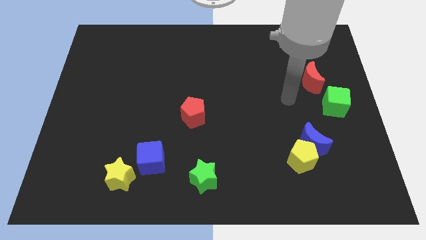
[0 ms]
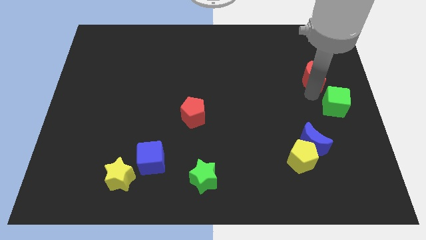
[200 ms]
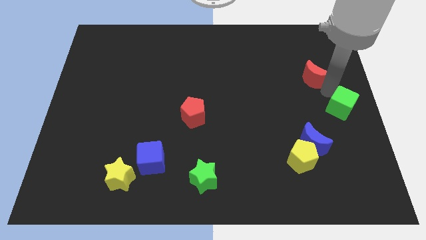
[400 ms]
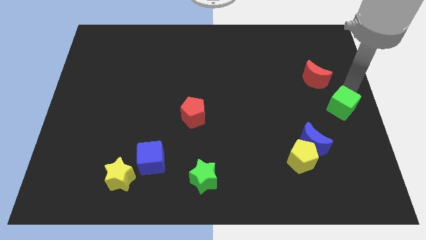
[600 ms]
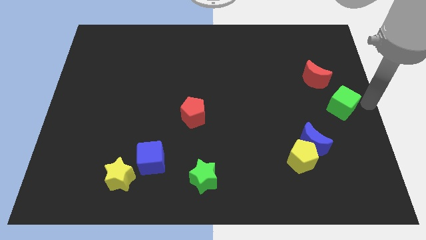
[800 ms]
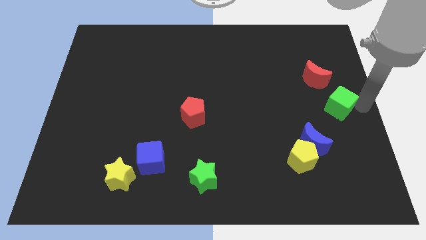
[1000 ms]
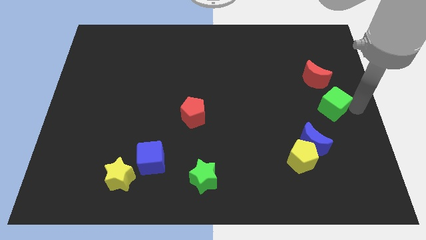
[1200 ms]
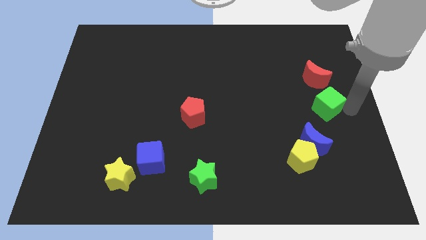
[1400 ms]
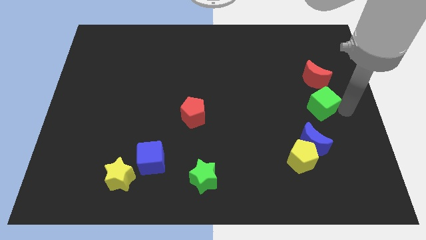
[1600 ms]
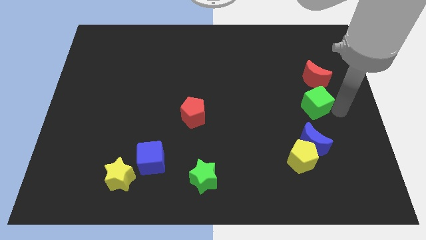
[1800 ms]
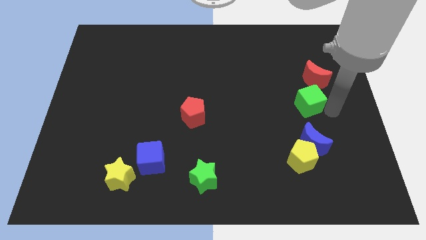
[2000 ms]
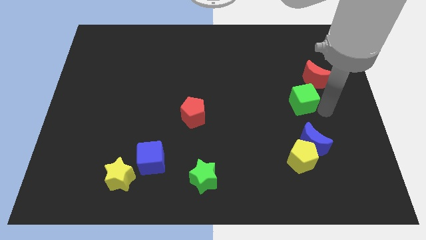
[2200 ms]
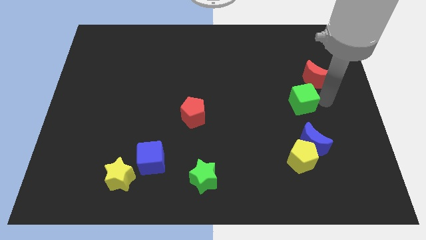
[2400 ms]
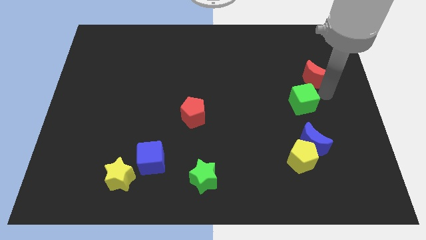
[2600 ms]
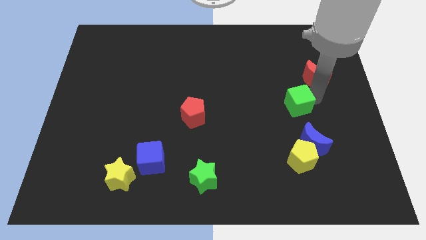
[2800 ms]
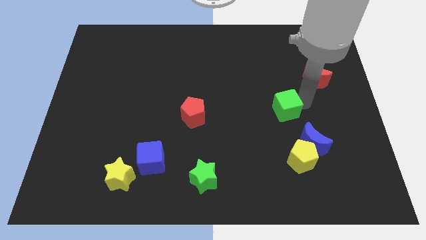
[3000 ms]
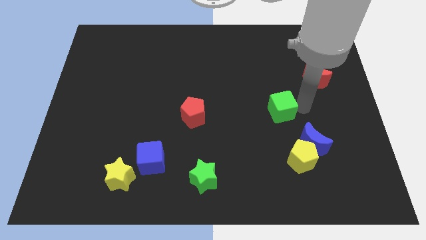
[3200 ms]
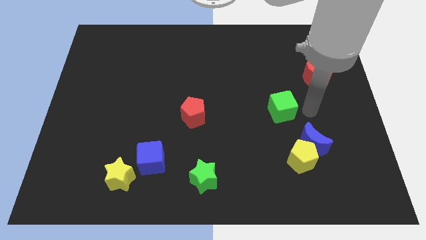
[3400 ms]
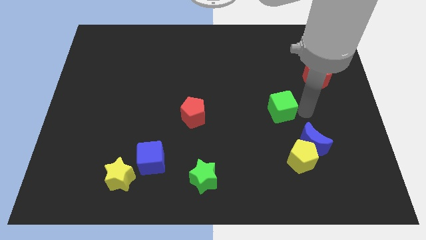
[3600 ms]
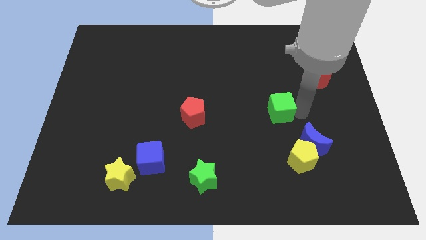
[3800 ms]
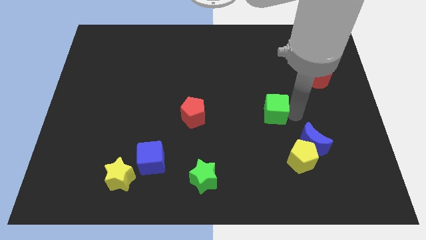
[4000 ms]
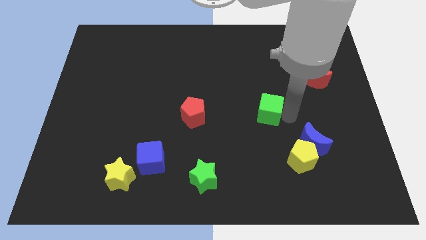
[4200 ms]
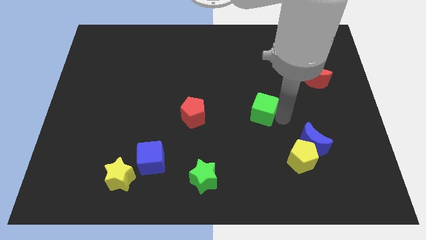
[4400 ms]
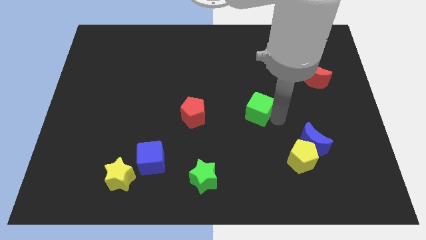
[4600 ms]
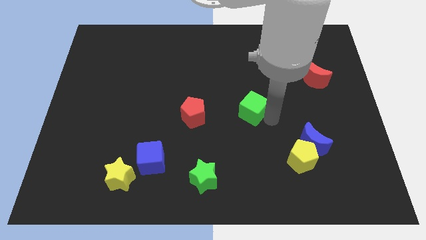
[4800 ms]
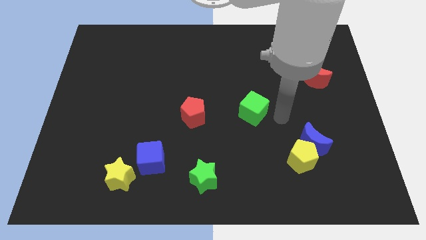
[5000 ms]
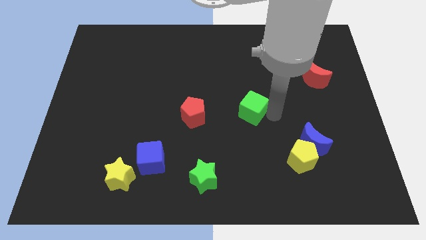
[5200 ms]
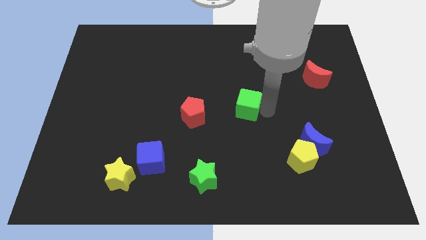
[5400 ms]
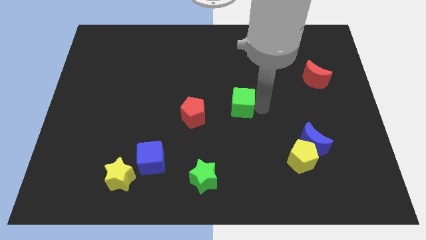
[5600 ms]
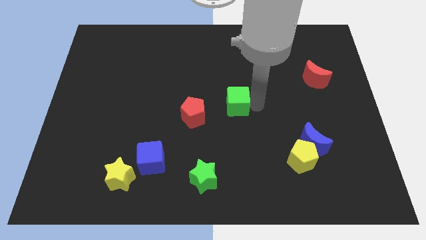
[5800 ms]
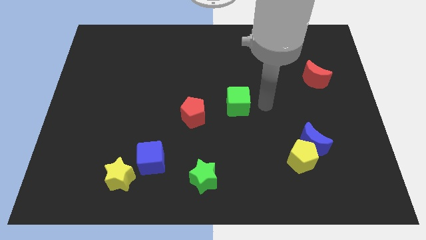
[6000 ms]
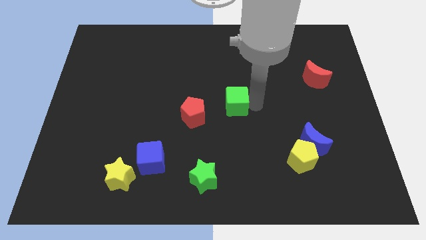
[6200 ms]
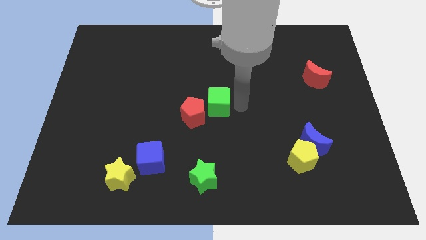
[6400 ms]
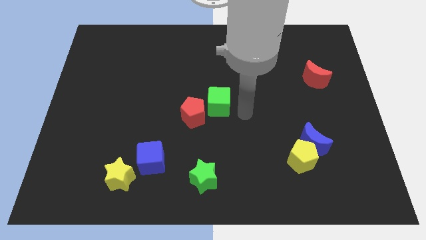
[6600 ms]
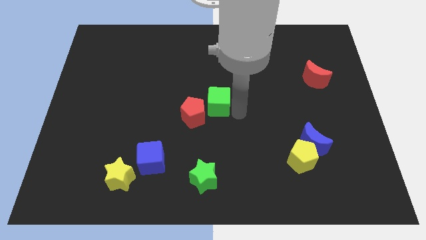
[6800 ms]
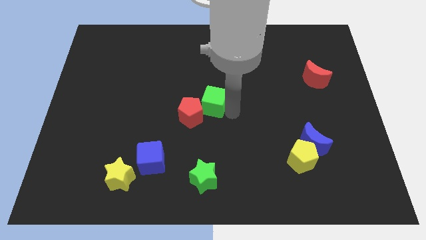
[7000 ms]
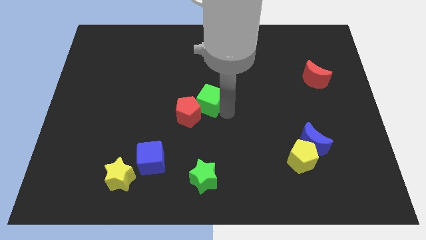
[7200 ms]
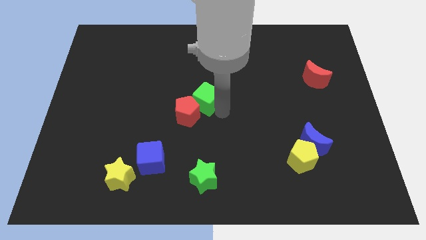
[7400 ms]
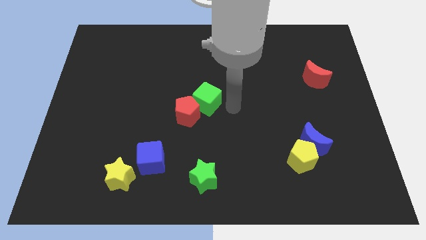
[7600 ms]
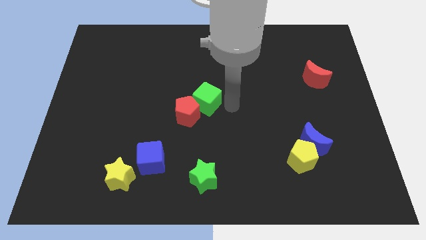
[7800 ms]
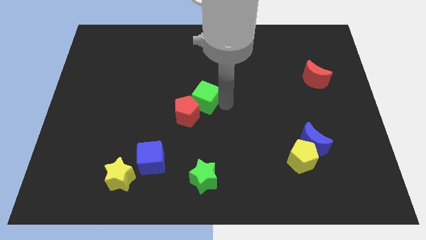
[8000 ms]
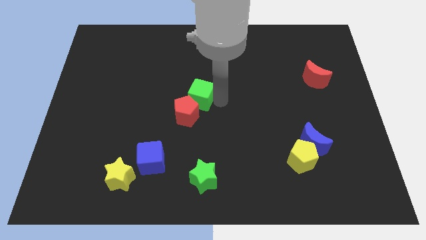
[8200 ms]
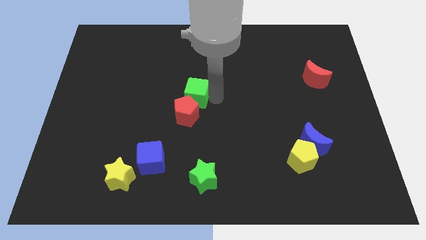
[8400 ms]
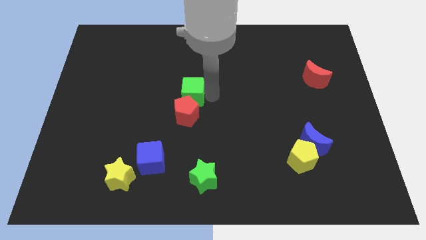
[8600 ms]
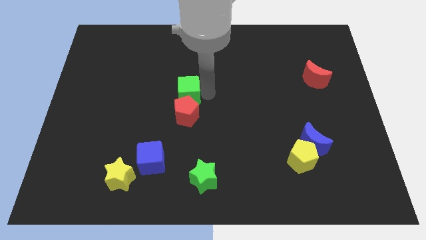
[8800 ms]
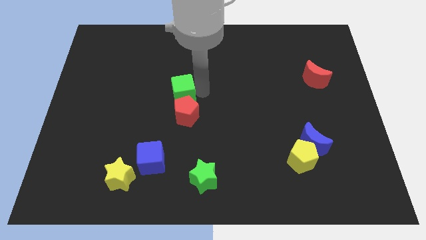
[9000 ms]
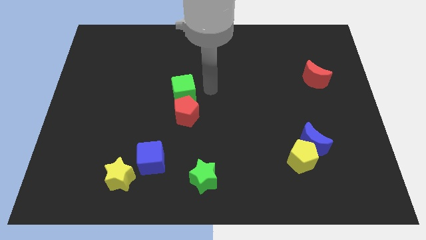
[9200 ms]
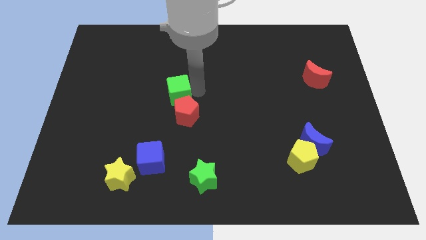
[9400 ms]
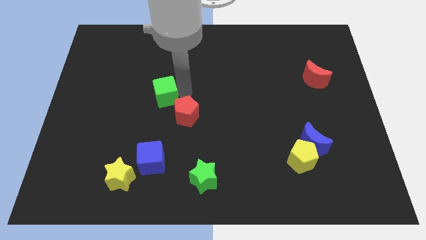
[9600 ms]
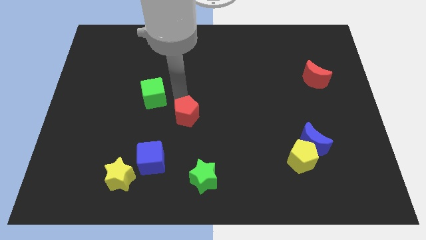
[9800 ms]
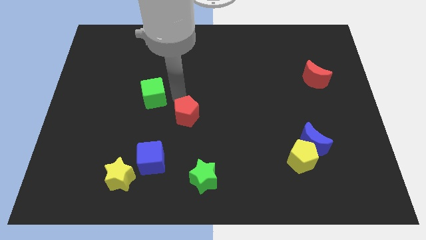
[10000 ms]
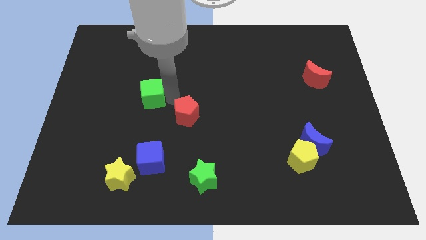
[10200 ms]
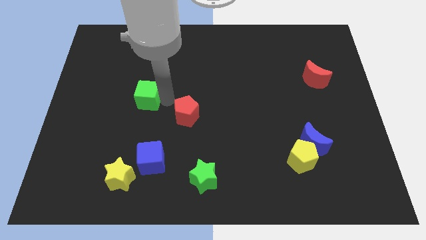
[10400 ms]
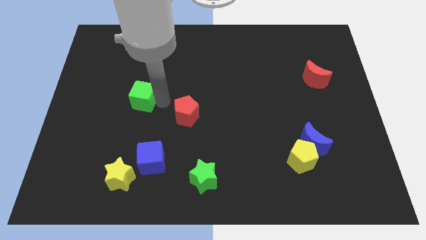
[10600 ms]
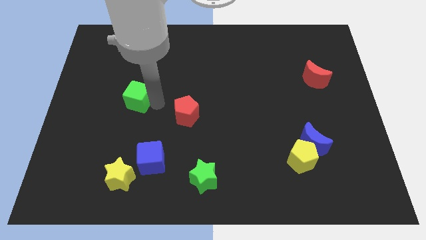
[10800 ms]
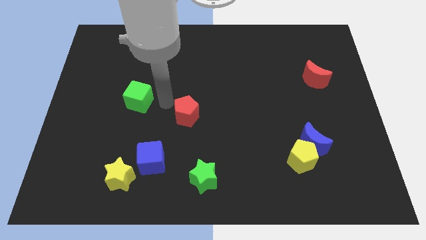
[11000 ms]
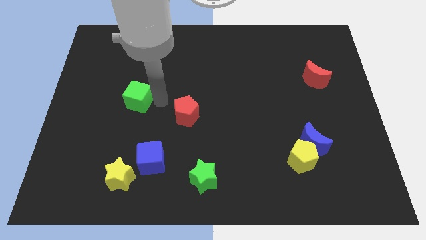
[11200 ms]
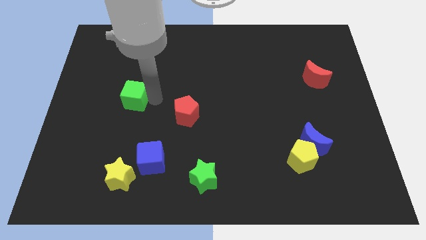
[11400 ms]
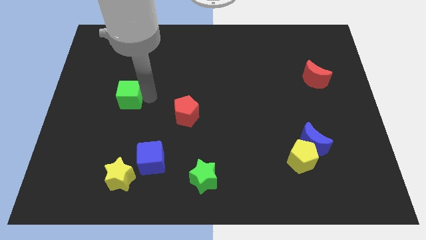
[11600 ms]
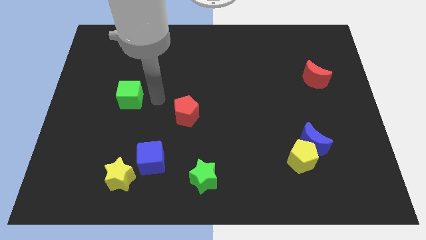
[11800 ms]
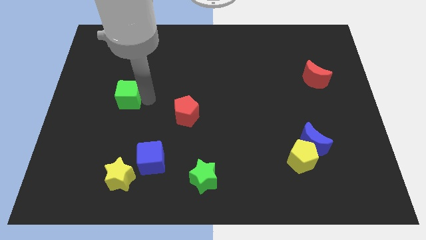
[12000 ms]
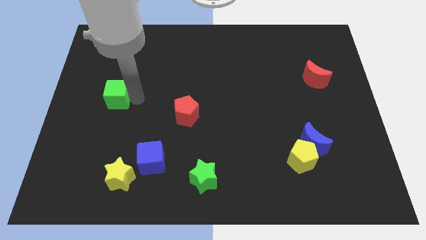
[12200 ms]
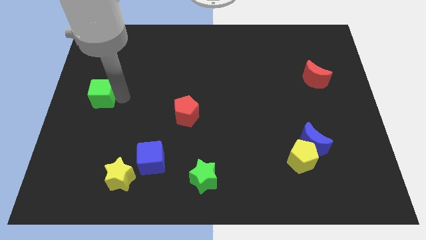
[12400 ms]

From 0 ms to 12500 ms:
move the green cube to the left side of the board
